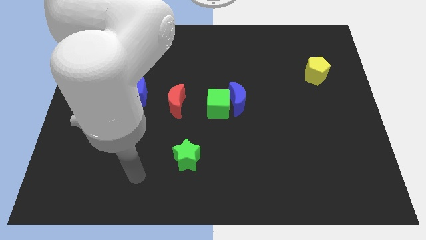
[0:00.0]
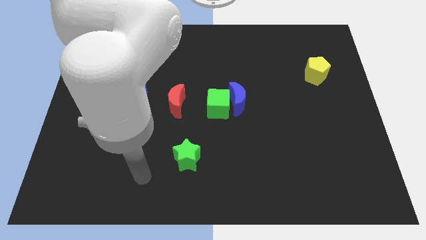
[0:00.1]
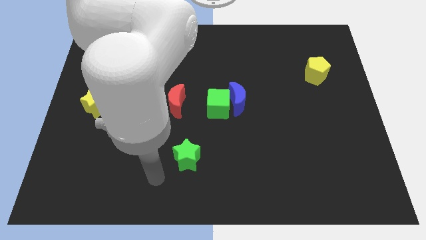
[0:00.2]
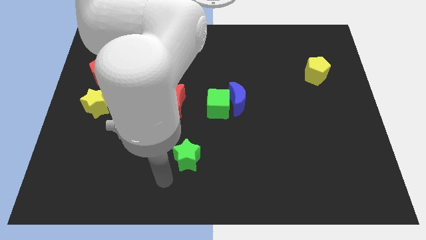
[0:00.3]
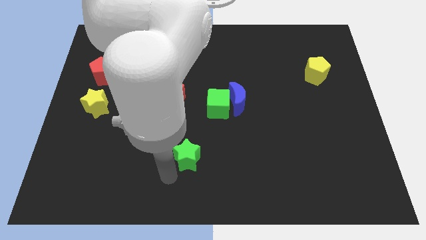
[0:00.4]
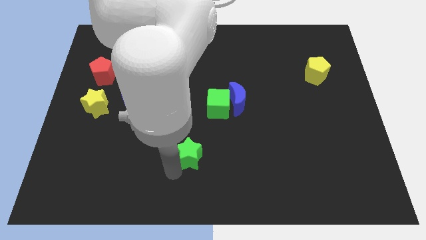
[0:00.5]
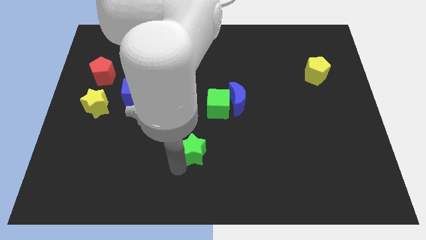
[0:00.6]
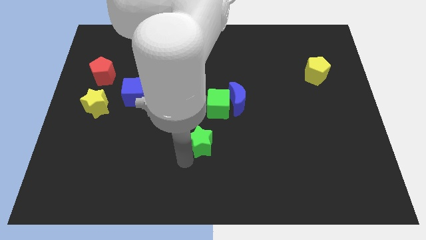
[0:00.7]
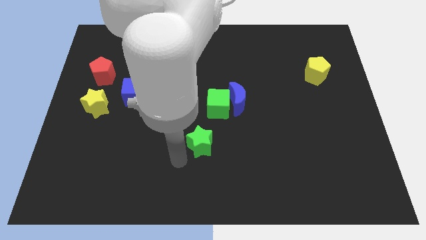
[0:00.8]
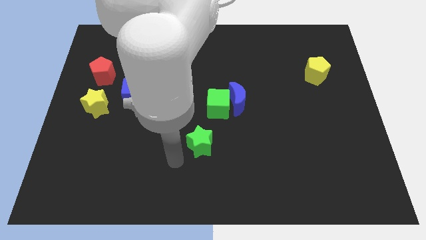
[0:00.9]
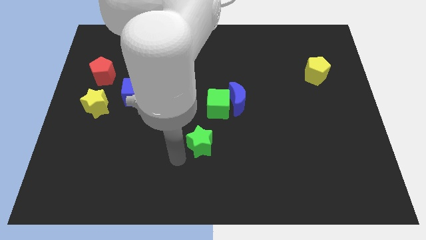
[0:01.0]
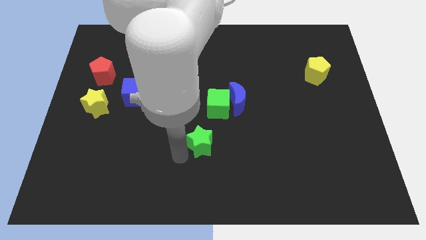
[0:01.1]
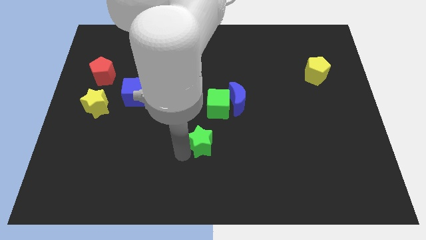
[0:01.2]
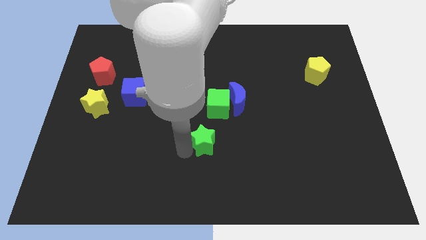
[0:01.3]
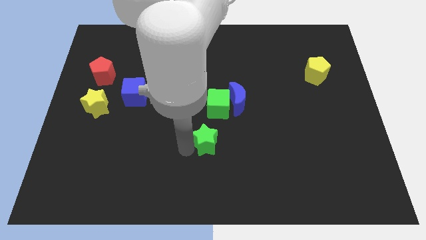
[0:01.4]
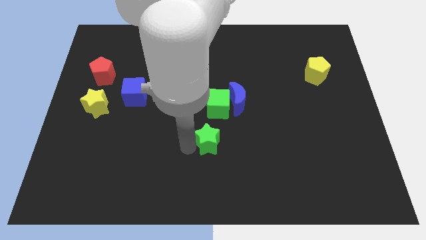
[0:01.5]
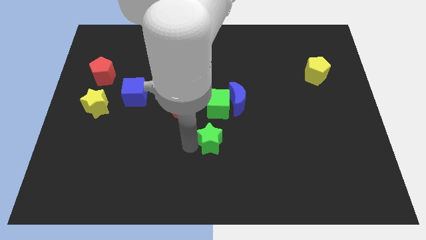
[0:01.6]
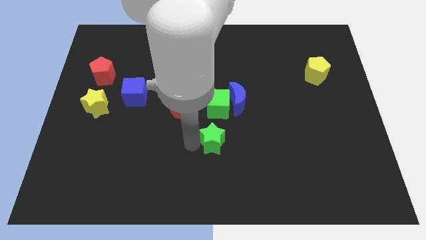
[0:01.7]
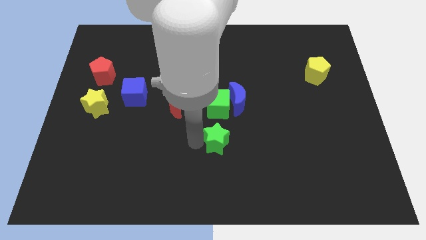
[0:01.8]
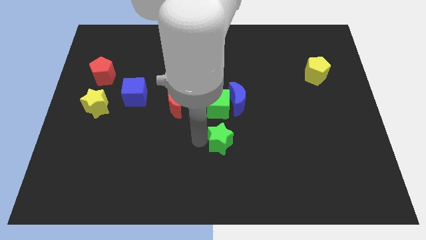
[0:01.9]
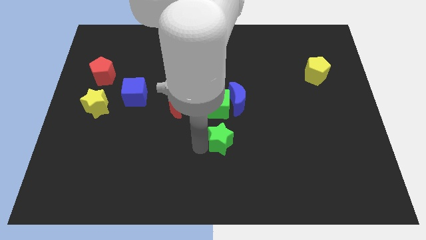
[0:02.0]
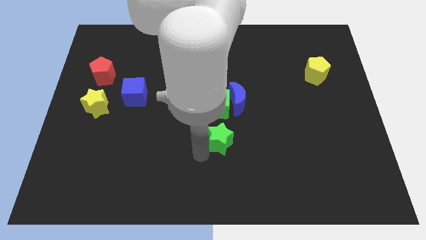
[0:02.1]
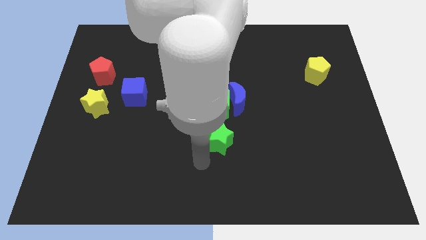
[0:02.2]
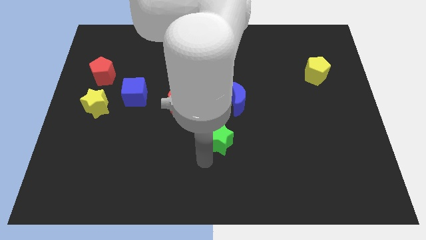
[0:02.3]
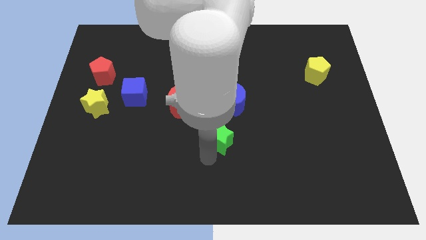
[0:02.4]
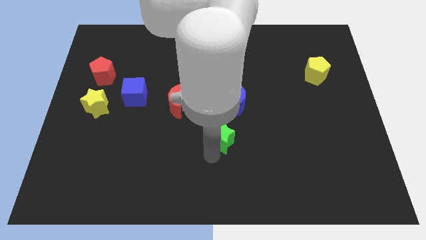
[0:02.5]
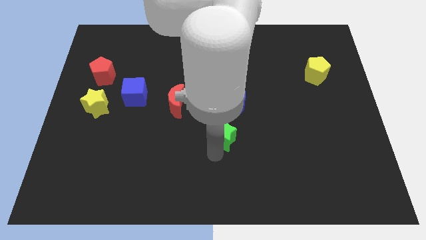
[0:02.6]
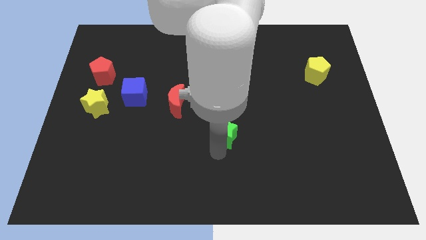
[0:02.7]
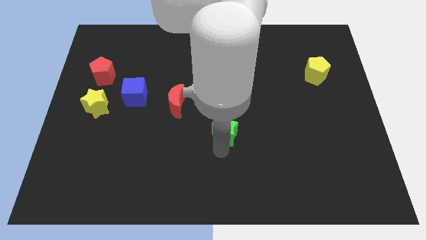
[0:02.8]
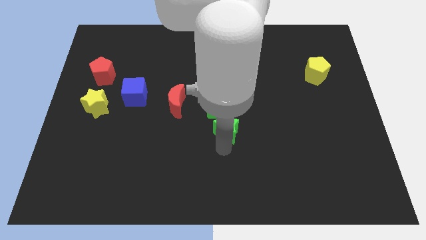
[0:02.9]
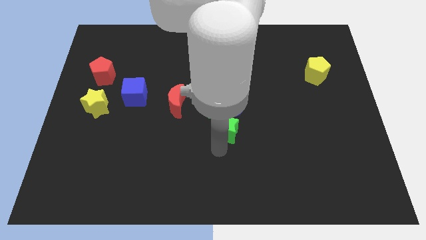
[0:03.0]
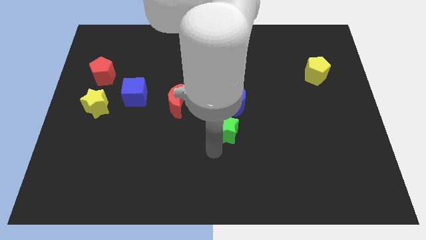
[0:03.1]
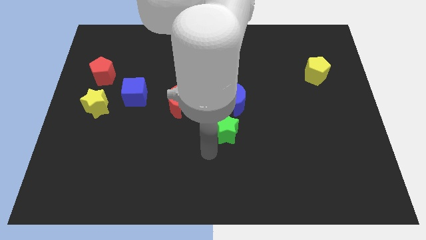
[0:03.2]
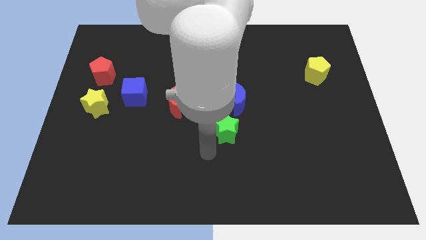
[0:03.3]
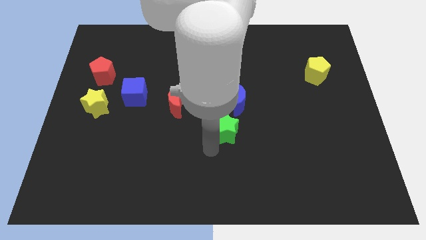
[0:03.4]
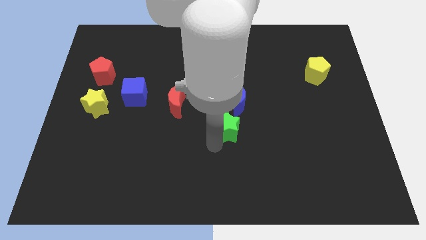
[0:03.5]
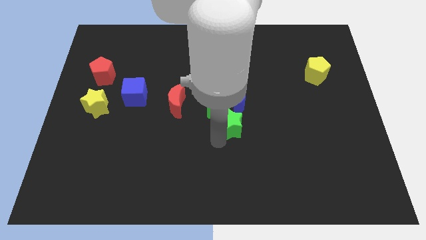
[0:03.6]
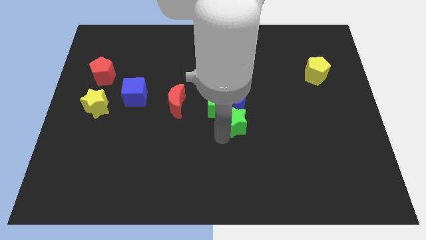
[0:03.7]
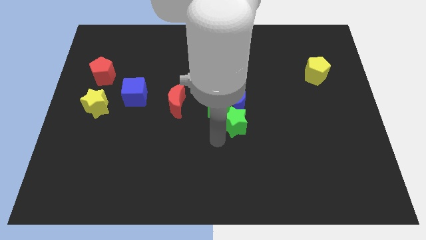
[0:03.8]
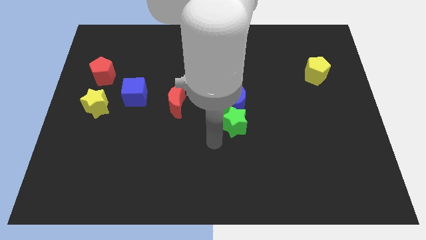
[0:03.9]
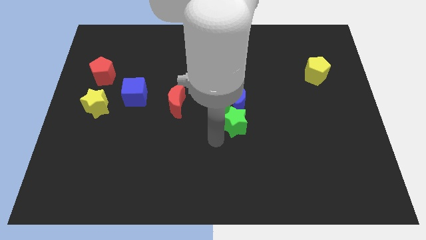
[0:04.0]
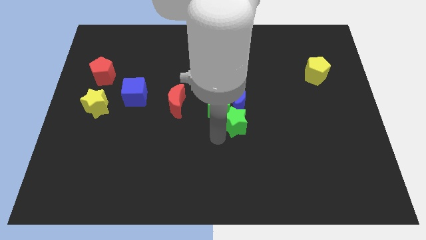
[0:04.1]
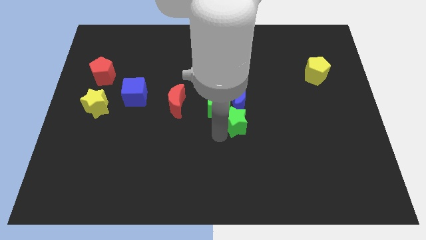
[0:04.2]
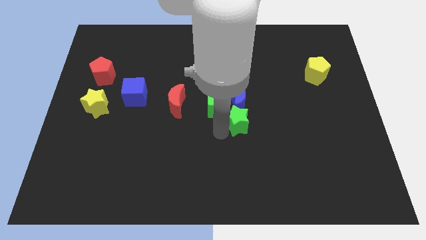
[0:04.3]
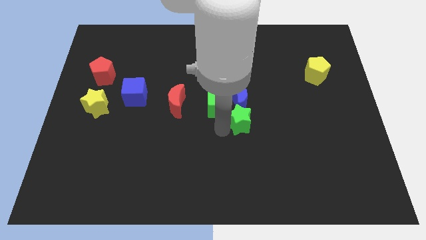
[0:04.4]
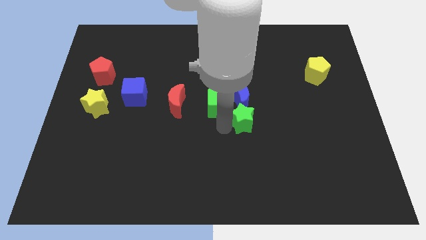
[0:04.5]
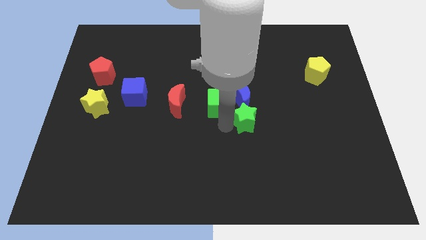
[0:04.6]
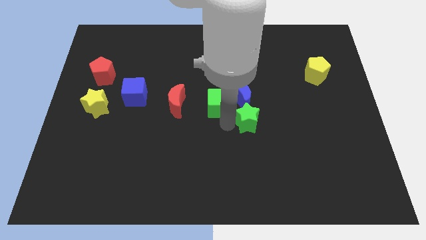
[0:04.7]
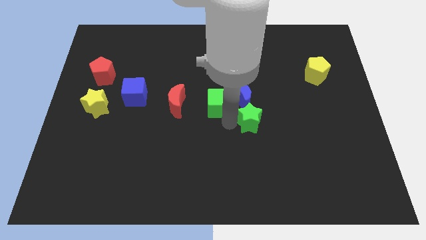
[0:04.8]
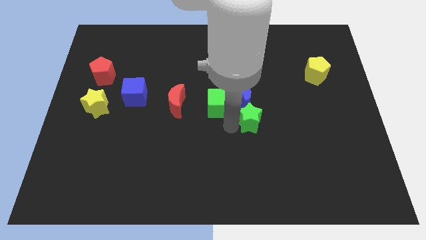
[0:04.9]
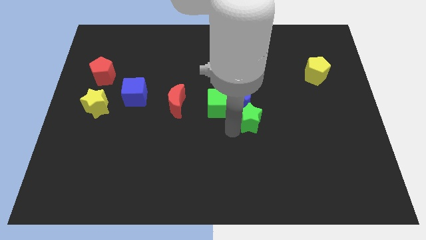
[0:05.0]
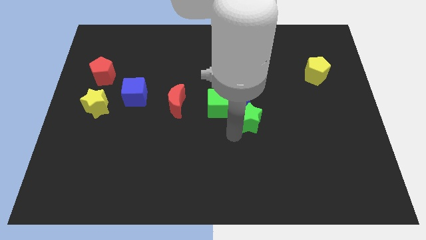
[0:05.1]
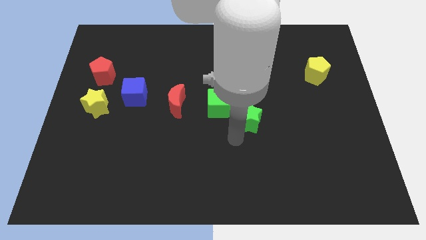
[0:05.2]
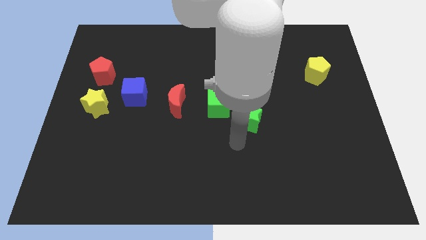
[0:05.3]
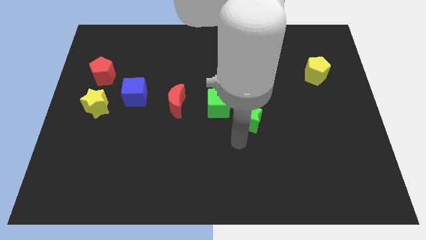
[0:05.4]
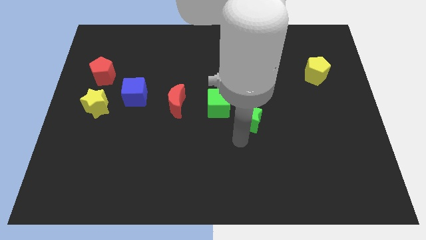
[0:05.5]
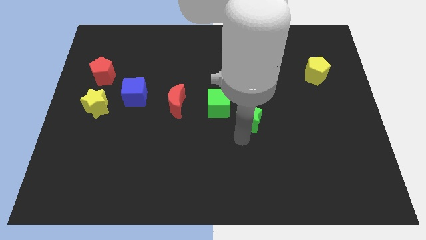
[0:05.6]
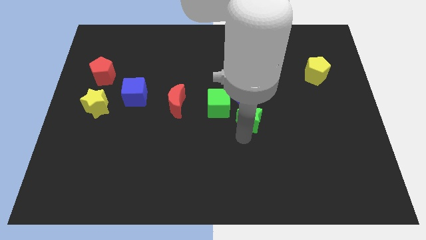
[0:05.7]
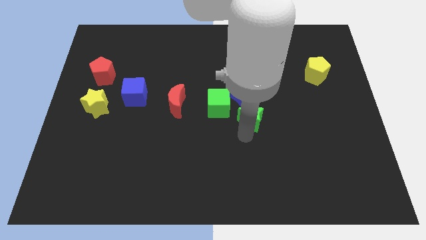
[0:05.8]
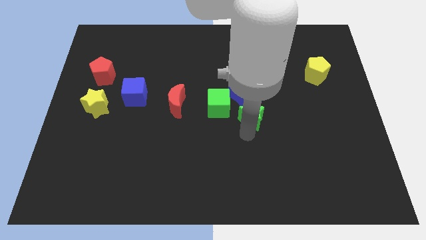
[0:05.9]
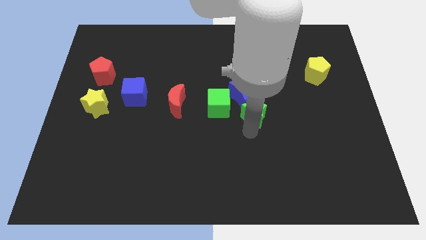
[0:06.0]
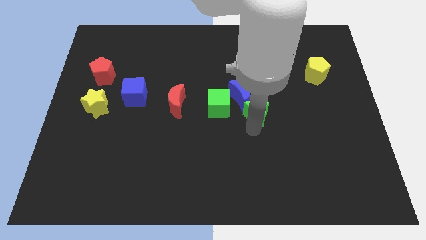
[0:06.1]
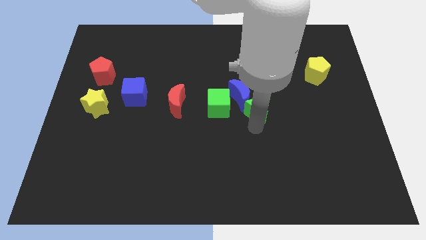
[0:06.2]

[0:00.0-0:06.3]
slide the green star diagonally upwards and to the right

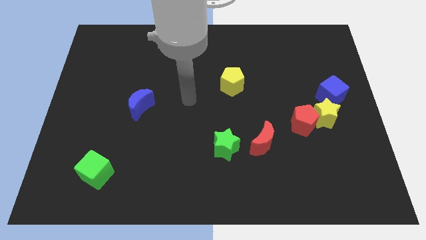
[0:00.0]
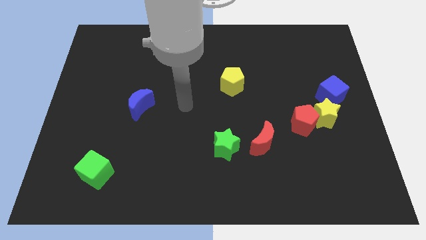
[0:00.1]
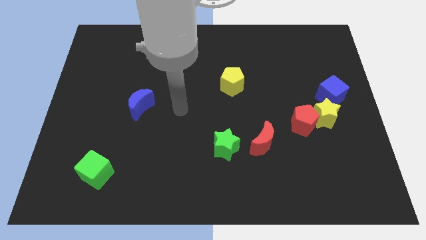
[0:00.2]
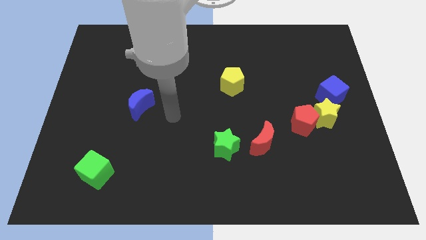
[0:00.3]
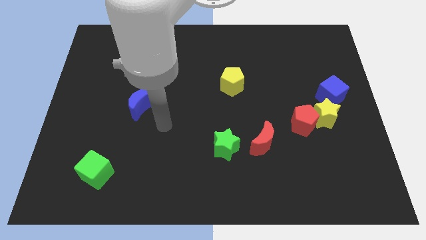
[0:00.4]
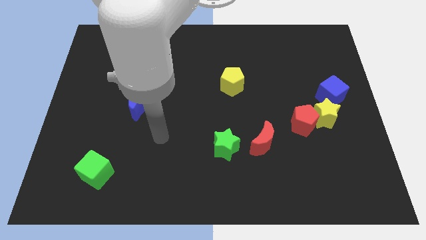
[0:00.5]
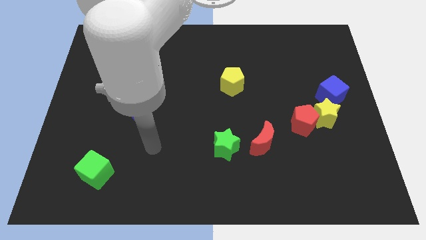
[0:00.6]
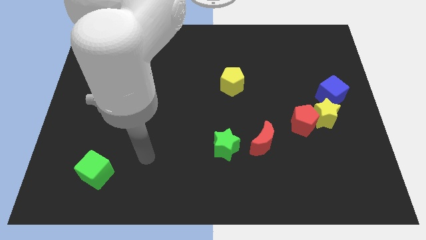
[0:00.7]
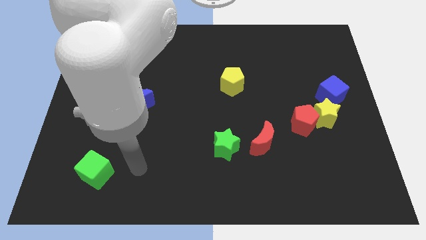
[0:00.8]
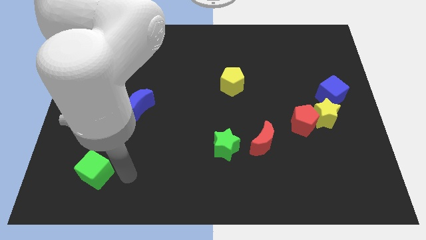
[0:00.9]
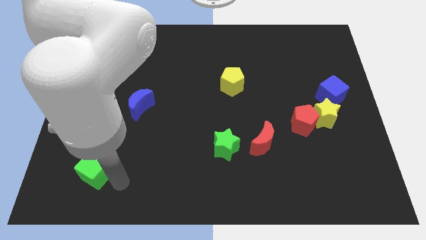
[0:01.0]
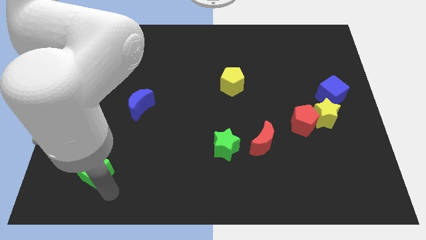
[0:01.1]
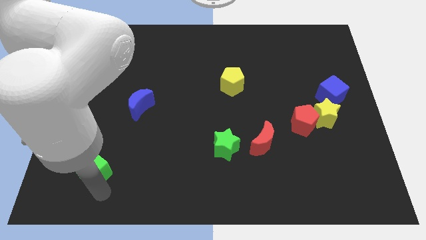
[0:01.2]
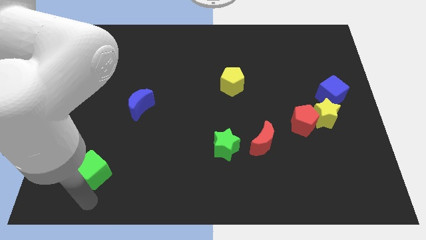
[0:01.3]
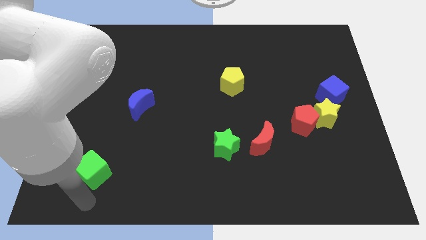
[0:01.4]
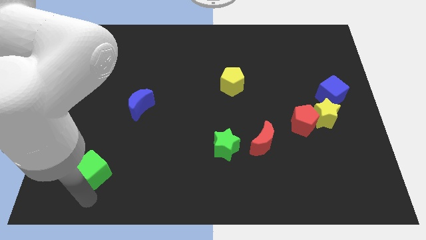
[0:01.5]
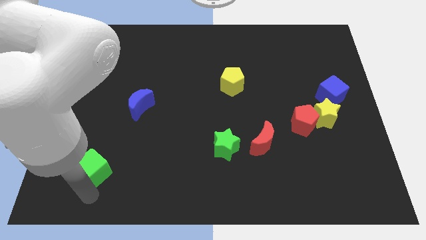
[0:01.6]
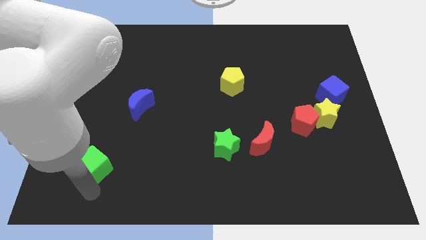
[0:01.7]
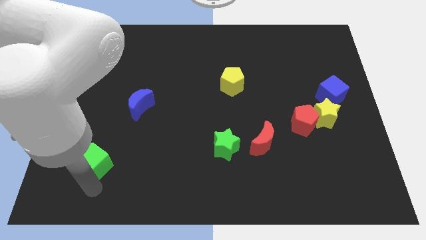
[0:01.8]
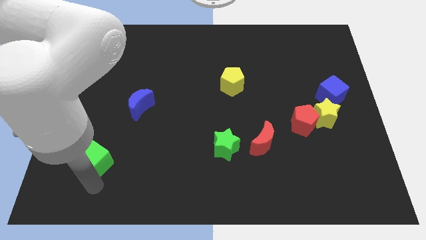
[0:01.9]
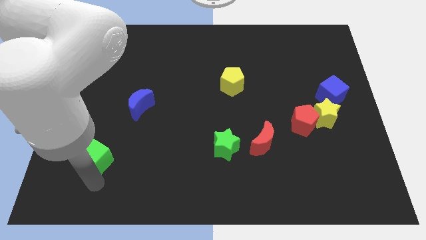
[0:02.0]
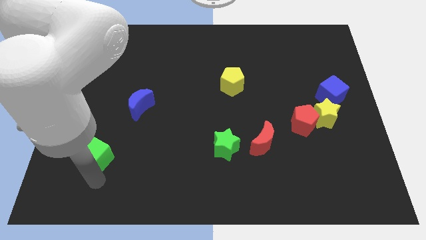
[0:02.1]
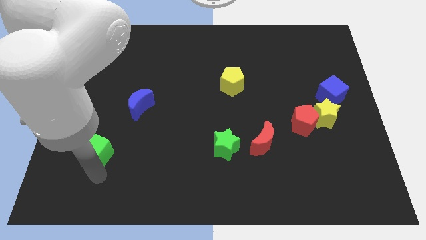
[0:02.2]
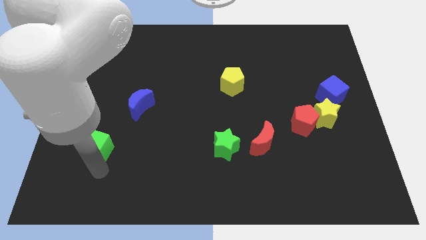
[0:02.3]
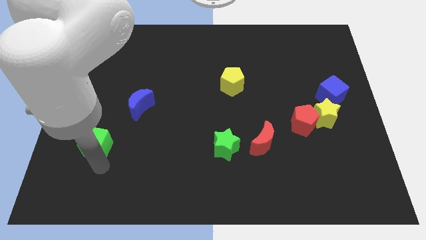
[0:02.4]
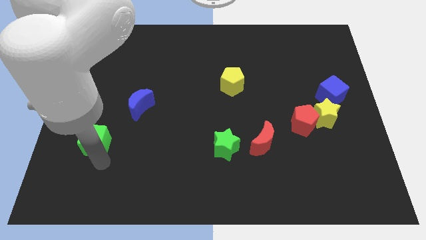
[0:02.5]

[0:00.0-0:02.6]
slightly push the green cube upwards
